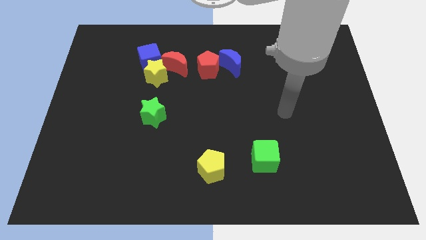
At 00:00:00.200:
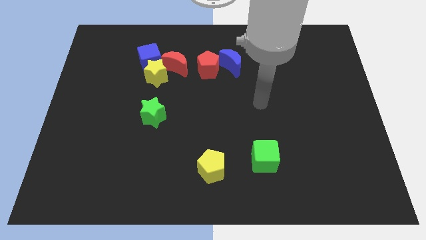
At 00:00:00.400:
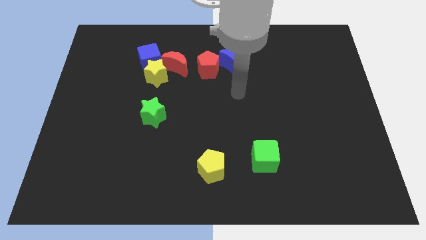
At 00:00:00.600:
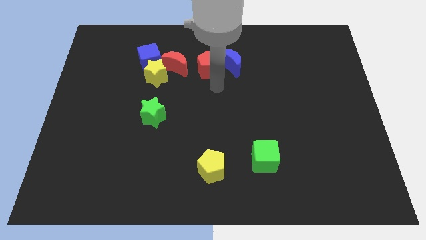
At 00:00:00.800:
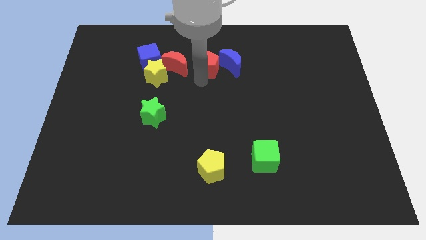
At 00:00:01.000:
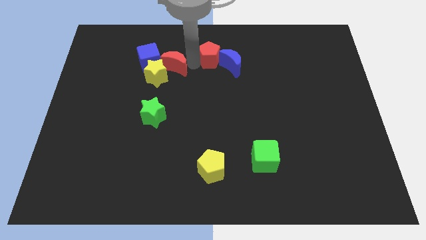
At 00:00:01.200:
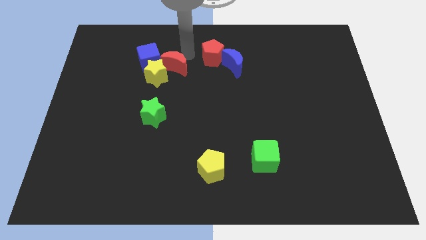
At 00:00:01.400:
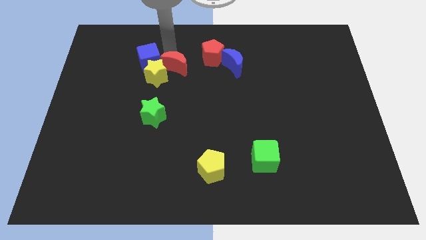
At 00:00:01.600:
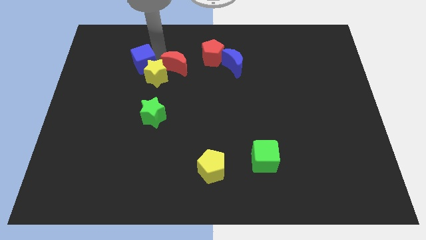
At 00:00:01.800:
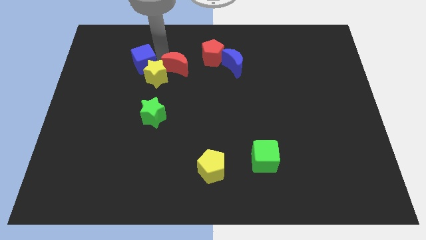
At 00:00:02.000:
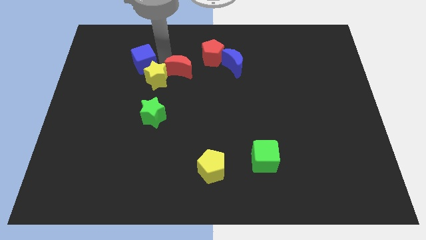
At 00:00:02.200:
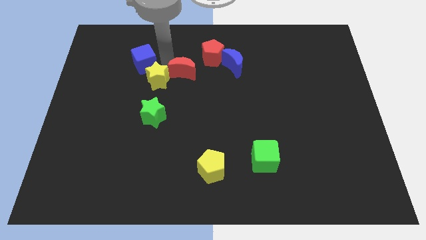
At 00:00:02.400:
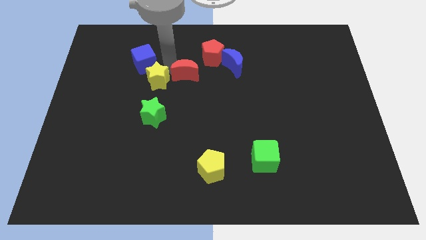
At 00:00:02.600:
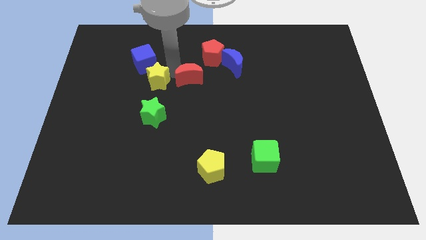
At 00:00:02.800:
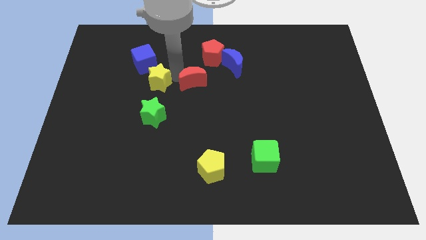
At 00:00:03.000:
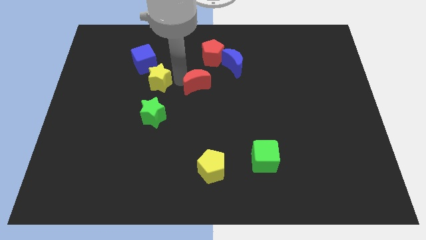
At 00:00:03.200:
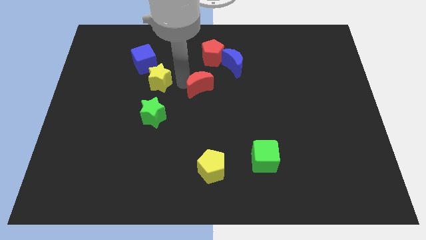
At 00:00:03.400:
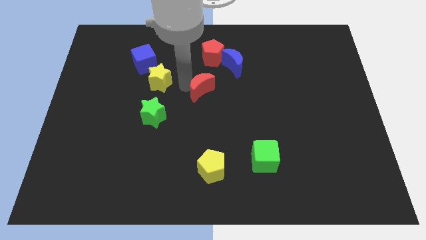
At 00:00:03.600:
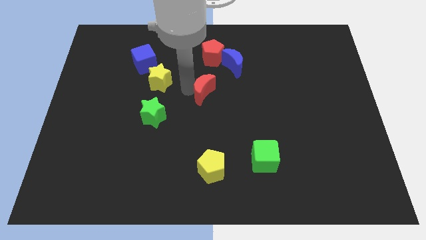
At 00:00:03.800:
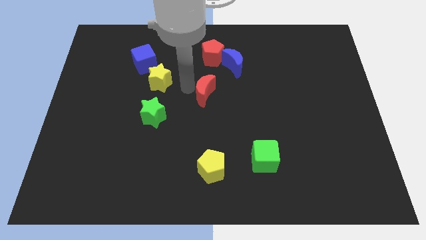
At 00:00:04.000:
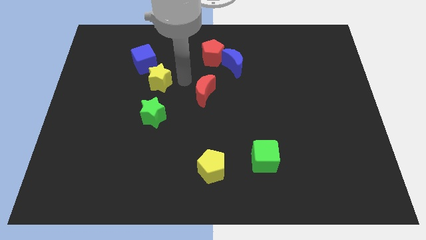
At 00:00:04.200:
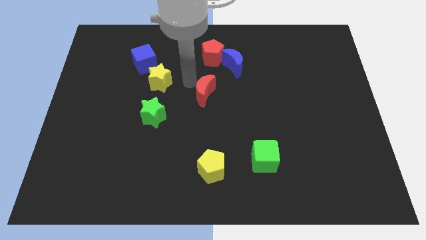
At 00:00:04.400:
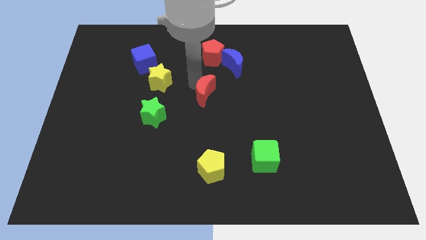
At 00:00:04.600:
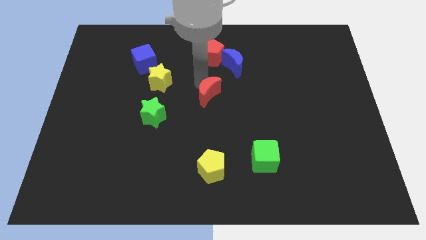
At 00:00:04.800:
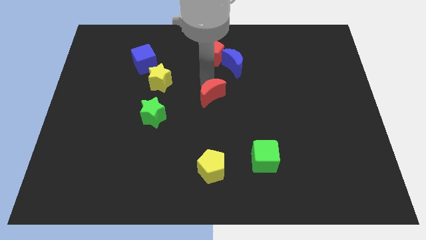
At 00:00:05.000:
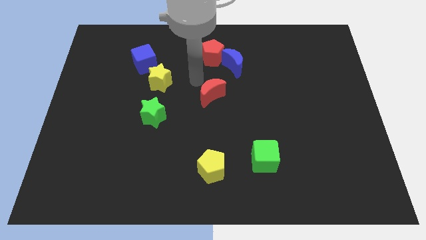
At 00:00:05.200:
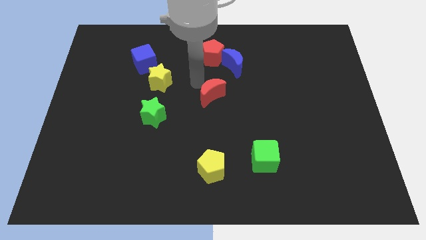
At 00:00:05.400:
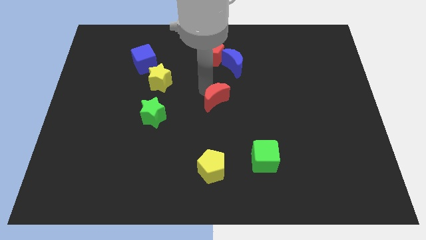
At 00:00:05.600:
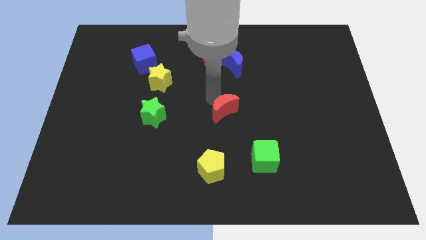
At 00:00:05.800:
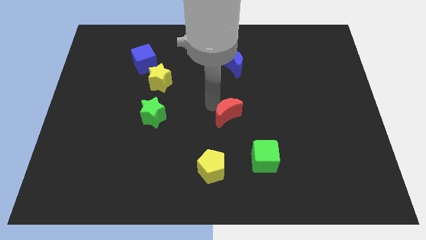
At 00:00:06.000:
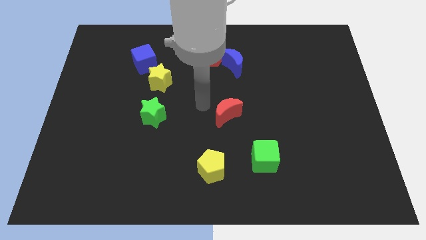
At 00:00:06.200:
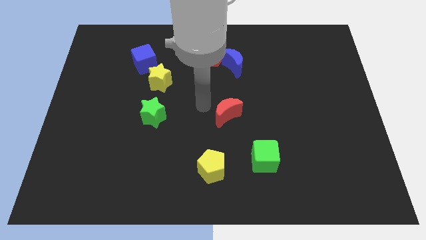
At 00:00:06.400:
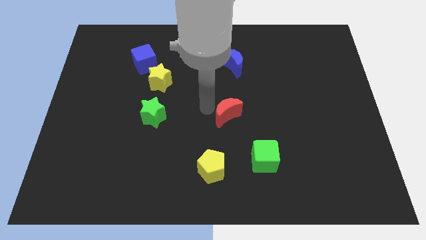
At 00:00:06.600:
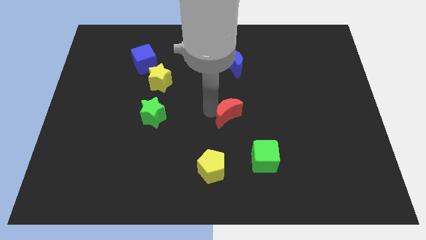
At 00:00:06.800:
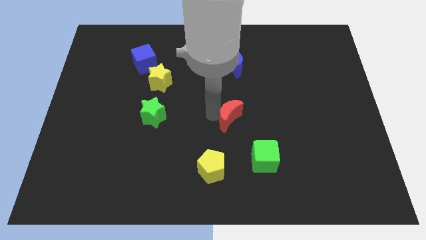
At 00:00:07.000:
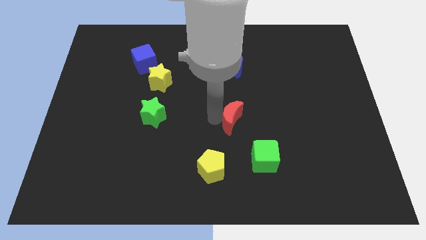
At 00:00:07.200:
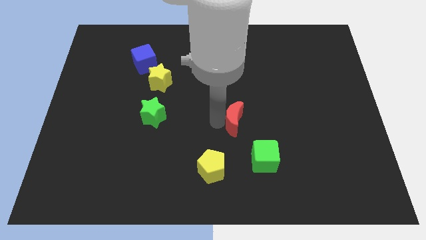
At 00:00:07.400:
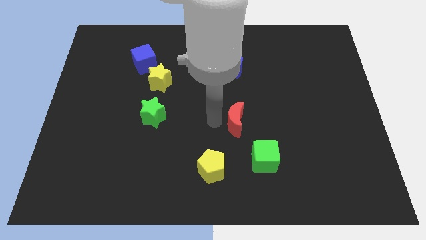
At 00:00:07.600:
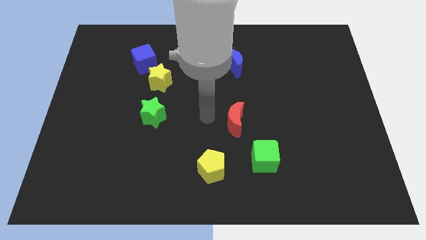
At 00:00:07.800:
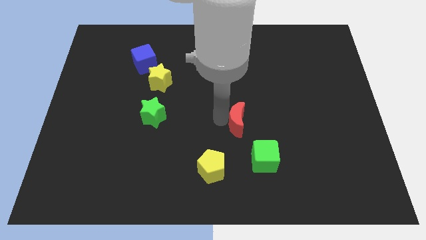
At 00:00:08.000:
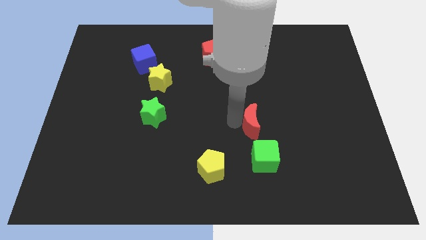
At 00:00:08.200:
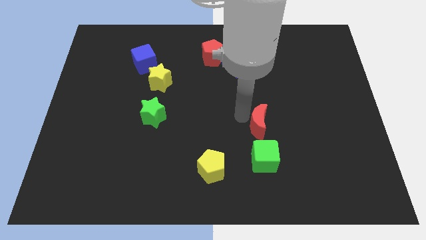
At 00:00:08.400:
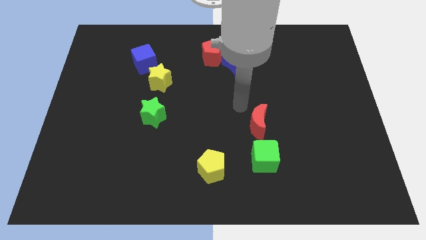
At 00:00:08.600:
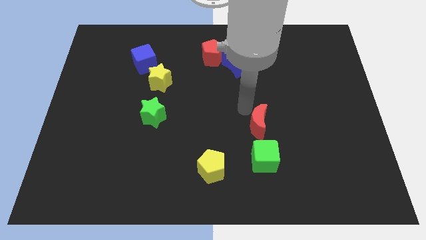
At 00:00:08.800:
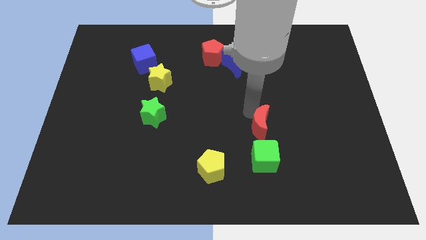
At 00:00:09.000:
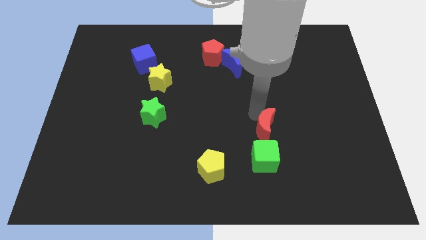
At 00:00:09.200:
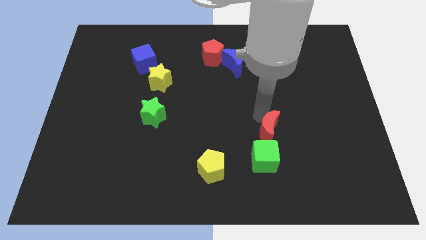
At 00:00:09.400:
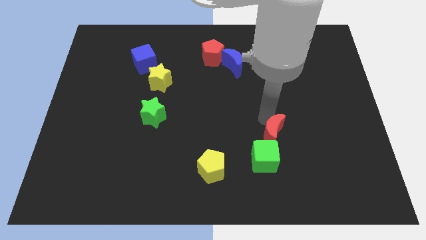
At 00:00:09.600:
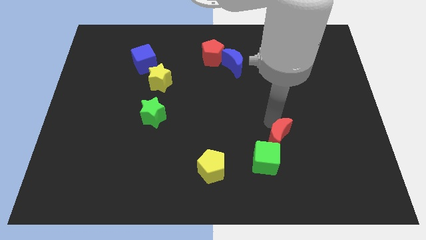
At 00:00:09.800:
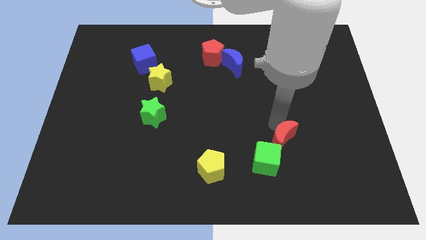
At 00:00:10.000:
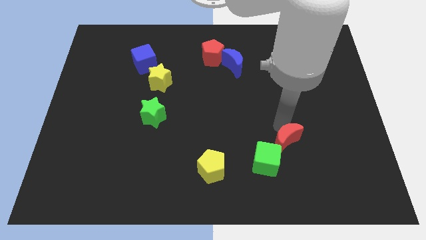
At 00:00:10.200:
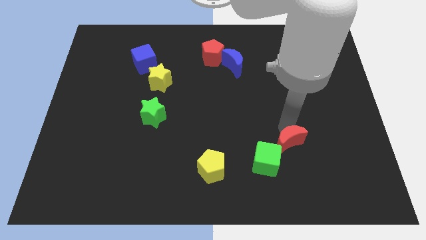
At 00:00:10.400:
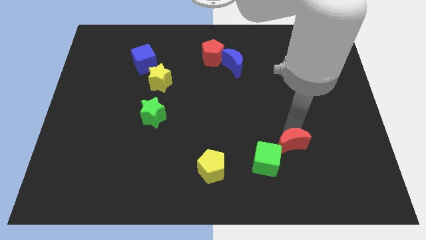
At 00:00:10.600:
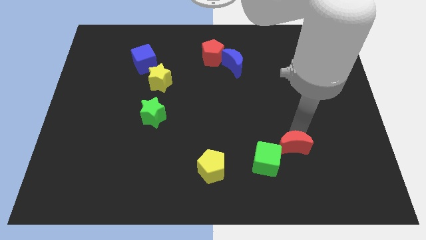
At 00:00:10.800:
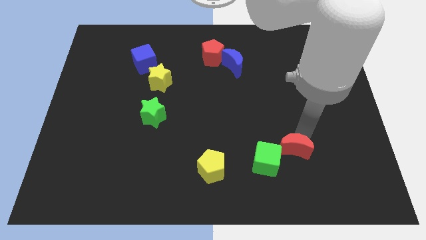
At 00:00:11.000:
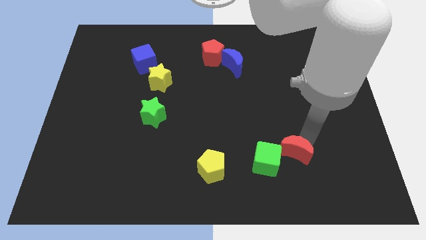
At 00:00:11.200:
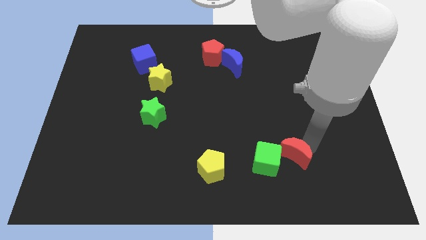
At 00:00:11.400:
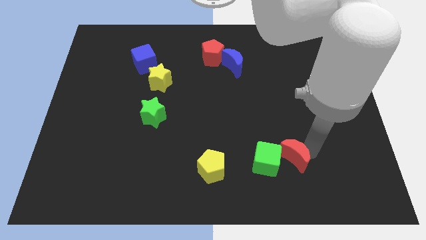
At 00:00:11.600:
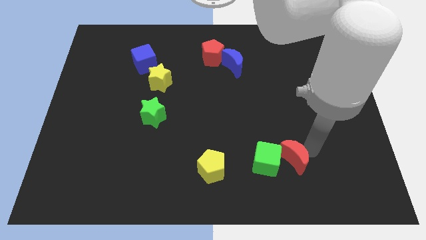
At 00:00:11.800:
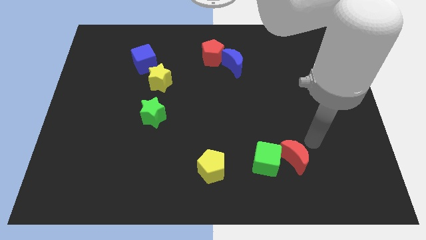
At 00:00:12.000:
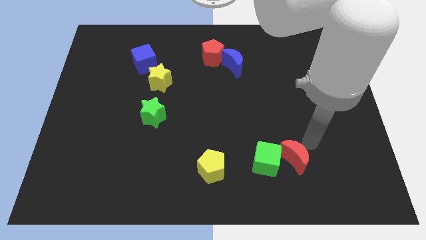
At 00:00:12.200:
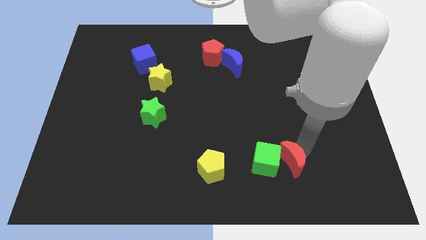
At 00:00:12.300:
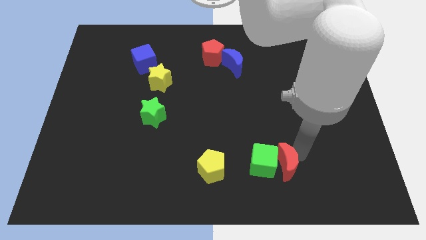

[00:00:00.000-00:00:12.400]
move the red moon just right of the yellow pentagon

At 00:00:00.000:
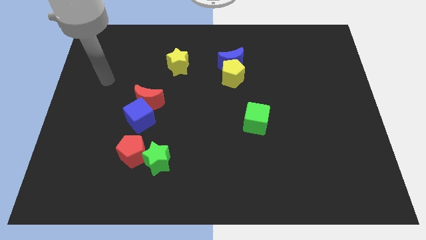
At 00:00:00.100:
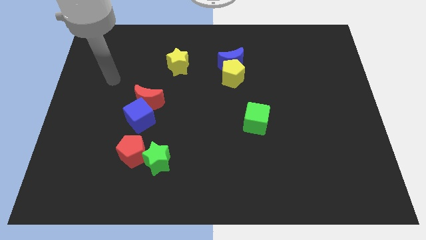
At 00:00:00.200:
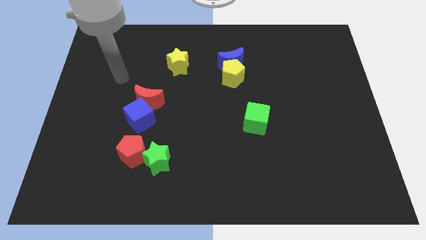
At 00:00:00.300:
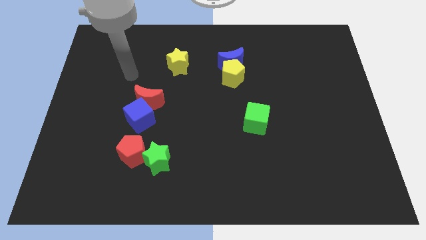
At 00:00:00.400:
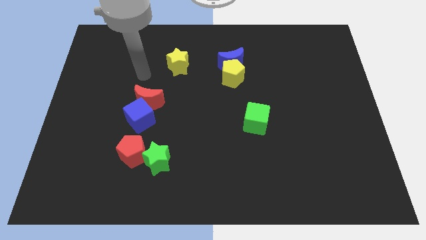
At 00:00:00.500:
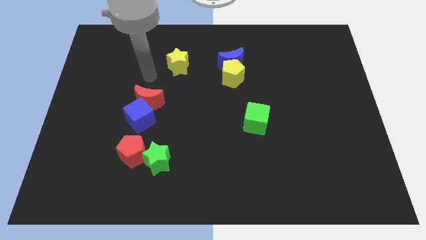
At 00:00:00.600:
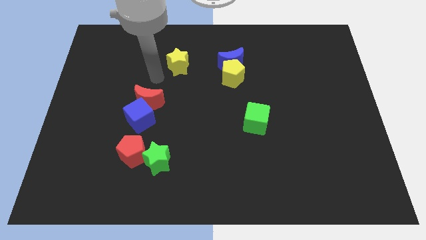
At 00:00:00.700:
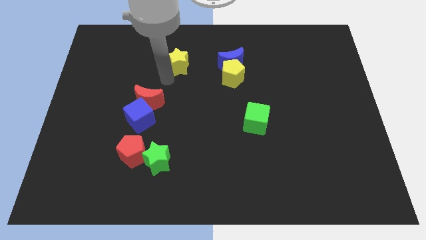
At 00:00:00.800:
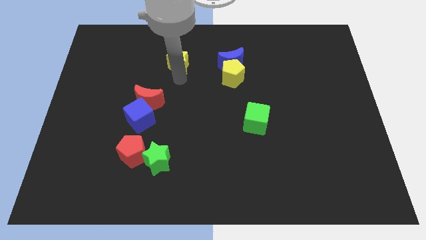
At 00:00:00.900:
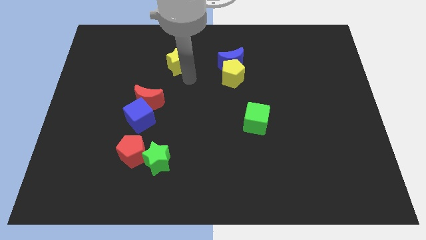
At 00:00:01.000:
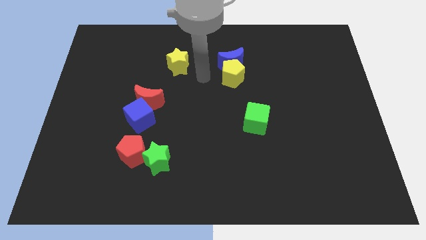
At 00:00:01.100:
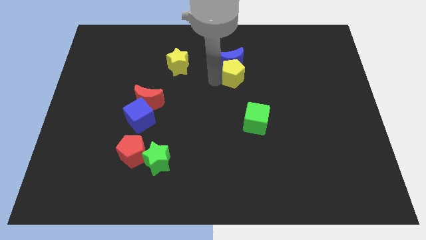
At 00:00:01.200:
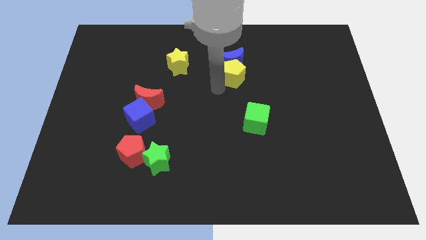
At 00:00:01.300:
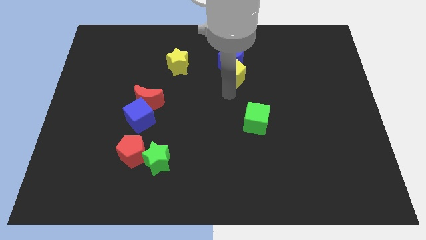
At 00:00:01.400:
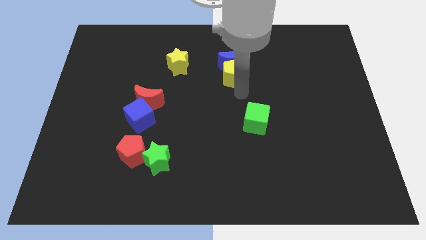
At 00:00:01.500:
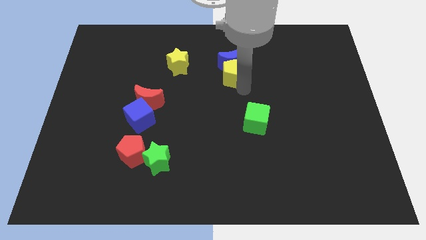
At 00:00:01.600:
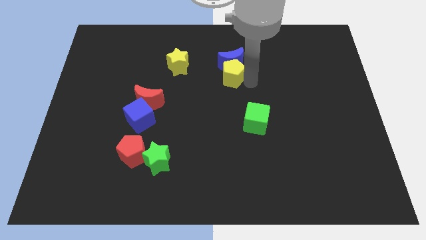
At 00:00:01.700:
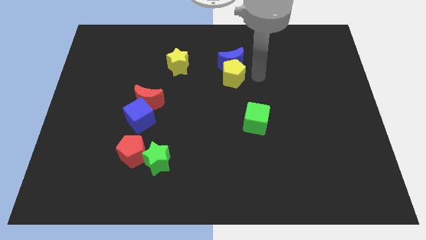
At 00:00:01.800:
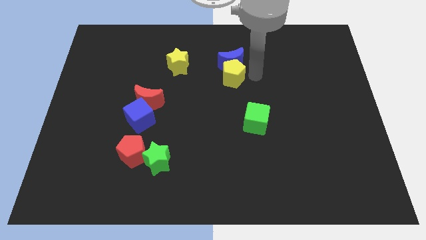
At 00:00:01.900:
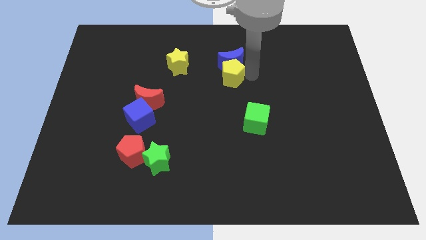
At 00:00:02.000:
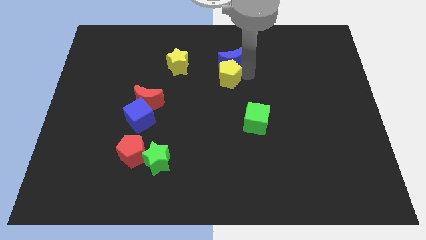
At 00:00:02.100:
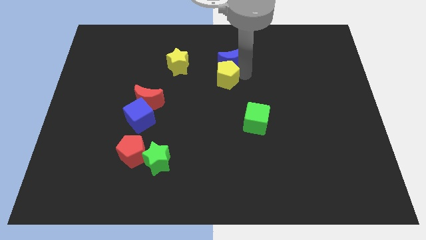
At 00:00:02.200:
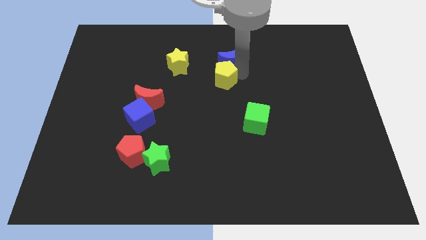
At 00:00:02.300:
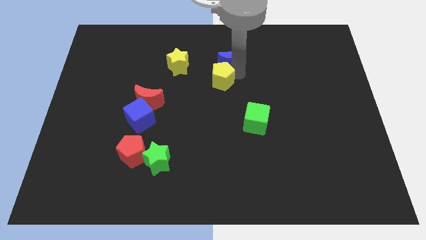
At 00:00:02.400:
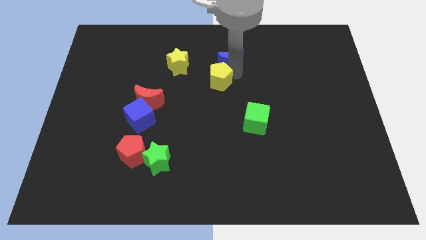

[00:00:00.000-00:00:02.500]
put the yellow pentagon to the bottom right of the yellow star
